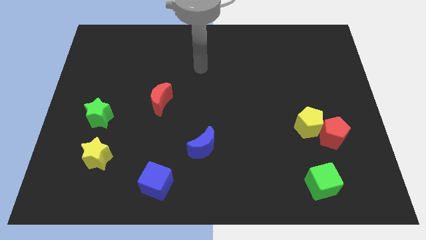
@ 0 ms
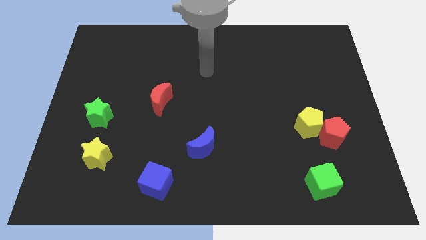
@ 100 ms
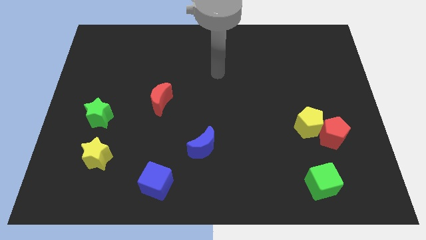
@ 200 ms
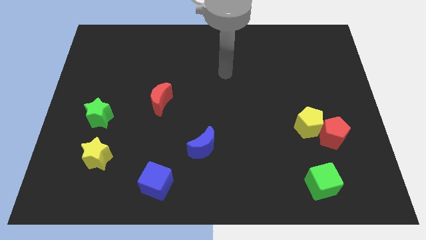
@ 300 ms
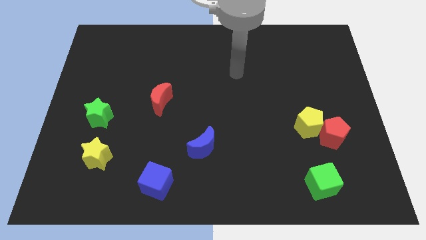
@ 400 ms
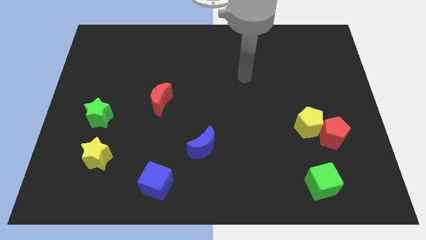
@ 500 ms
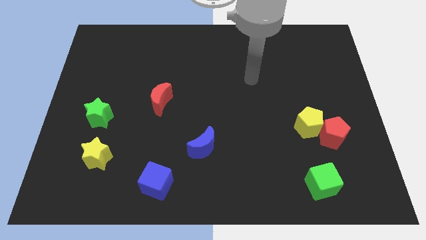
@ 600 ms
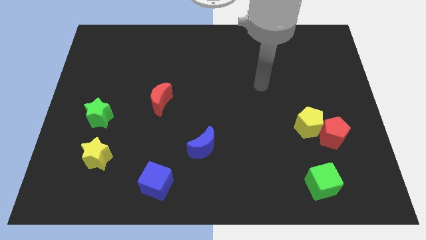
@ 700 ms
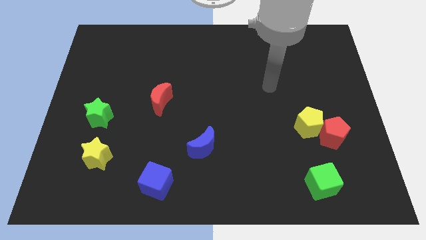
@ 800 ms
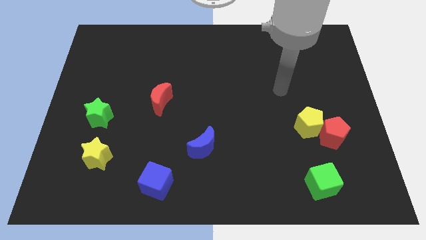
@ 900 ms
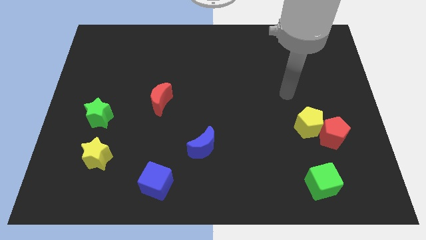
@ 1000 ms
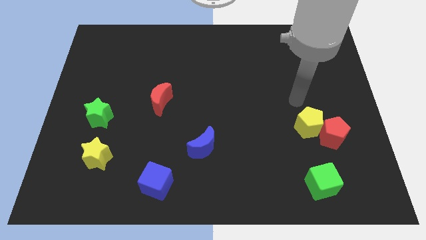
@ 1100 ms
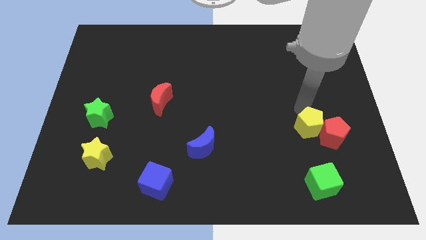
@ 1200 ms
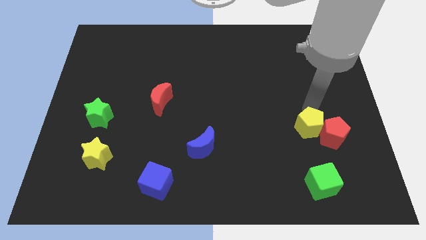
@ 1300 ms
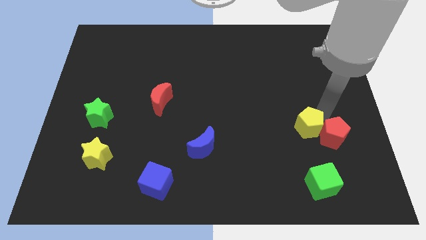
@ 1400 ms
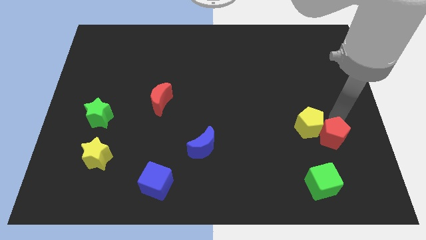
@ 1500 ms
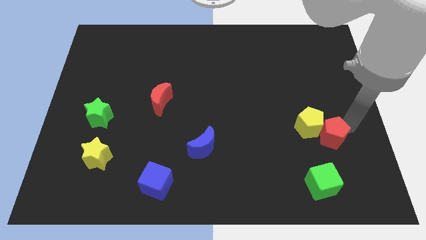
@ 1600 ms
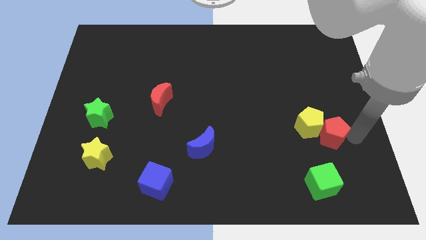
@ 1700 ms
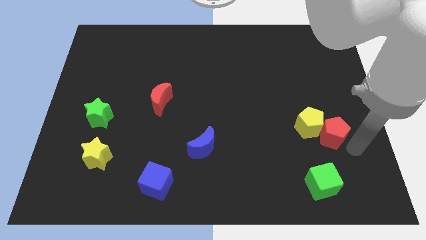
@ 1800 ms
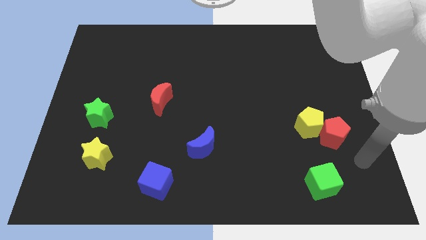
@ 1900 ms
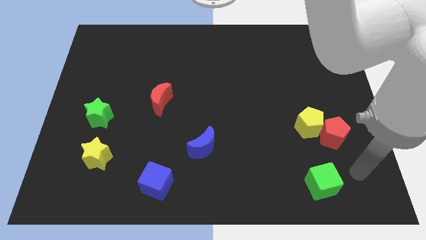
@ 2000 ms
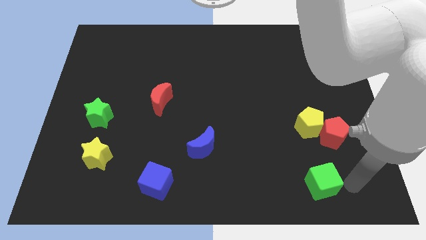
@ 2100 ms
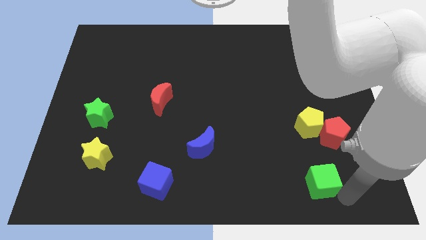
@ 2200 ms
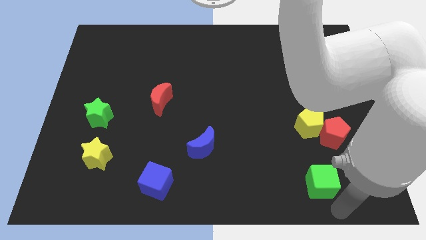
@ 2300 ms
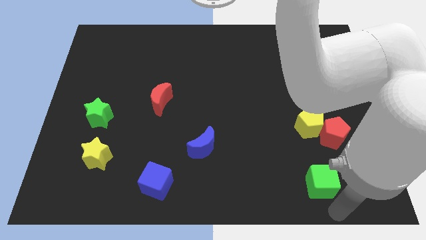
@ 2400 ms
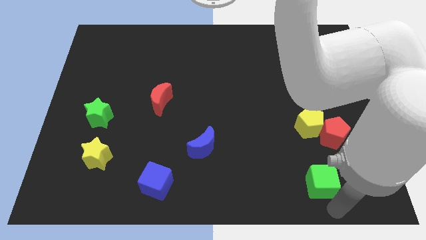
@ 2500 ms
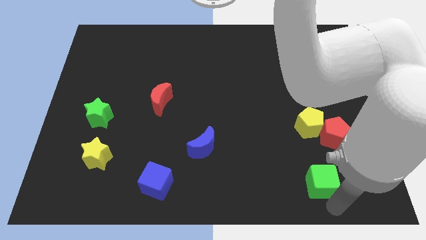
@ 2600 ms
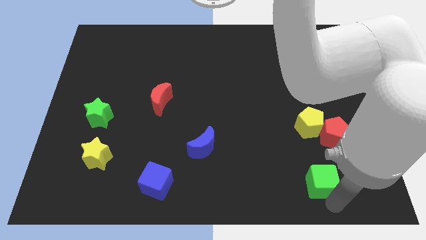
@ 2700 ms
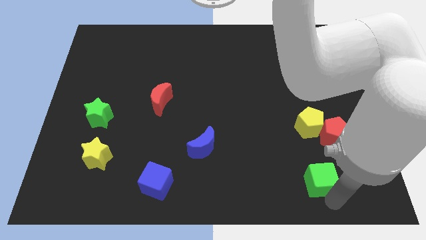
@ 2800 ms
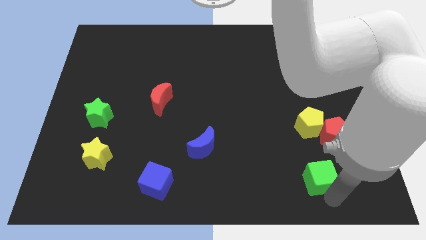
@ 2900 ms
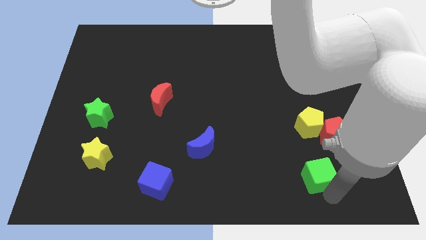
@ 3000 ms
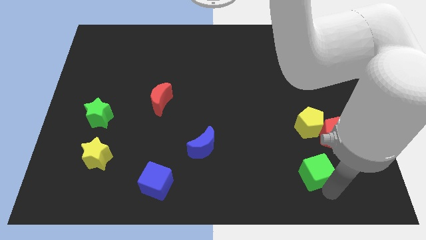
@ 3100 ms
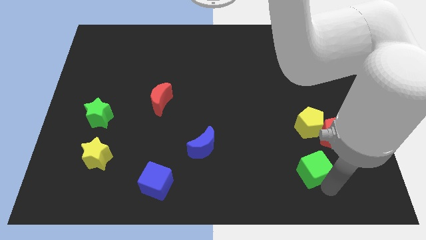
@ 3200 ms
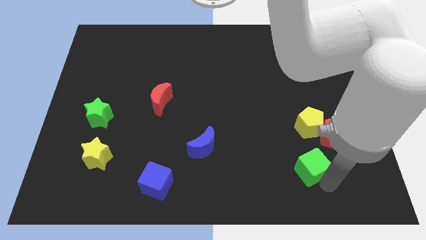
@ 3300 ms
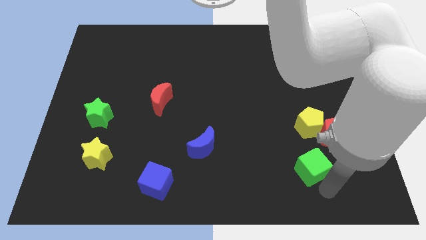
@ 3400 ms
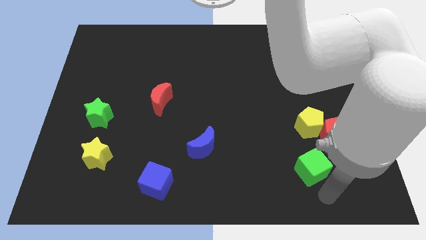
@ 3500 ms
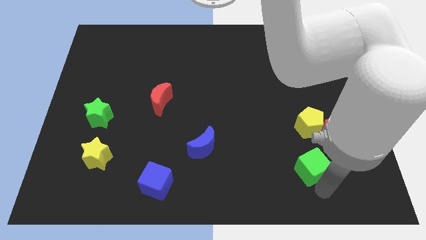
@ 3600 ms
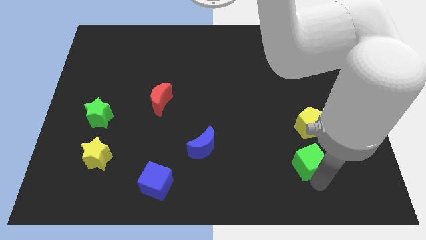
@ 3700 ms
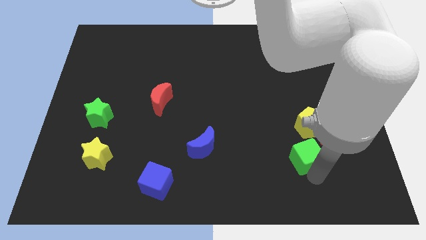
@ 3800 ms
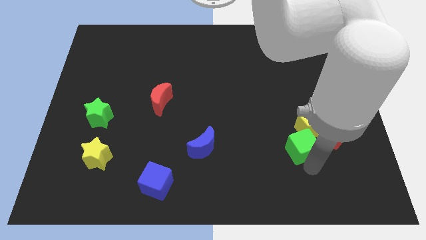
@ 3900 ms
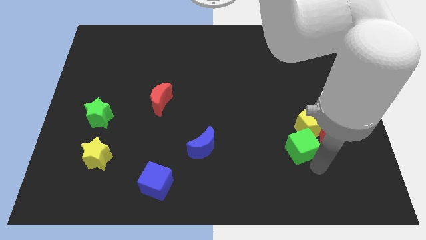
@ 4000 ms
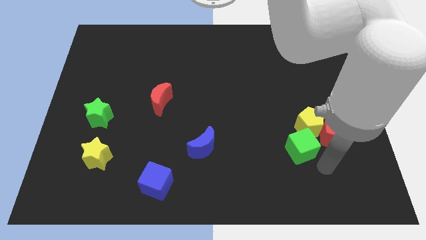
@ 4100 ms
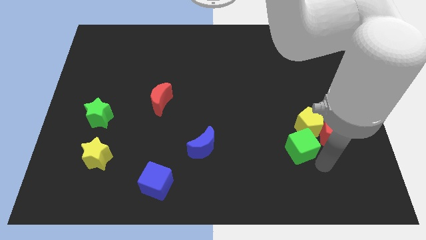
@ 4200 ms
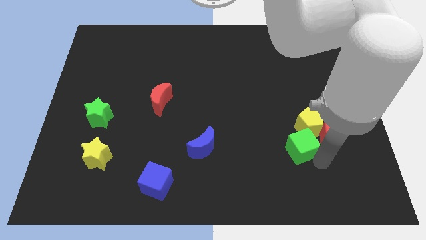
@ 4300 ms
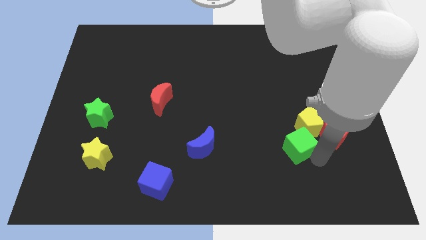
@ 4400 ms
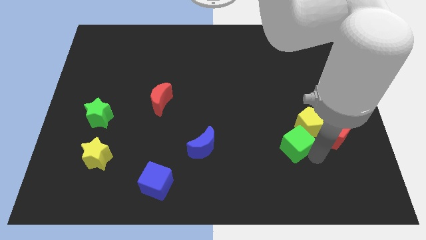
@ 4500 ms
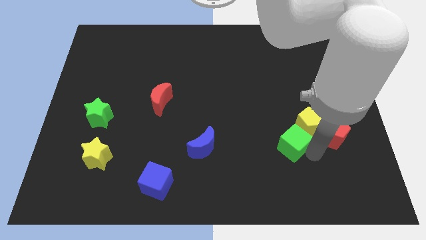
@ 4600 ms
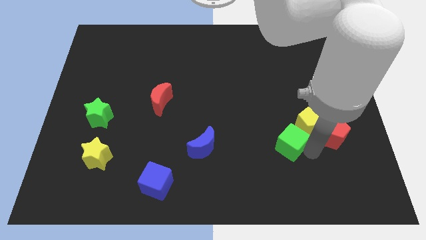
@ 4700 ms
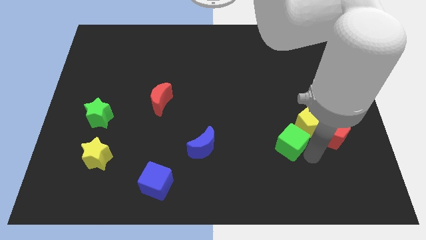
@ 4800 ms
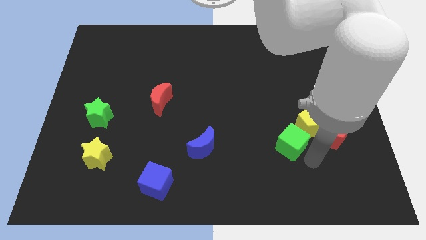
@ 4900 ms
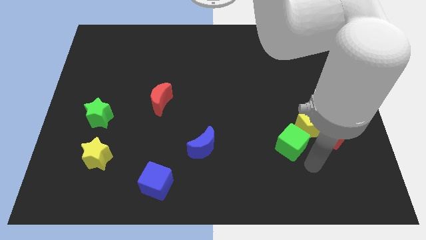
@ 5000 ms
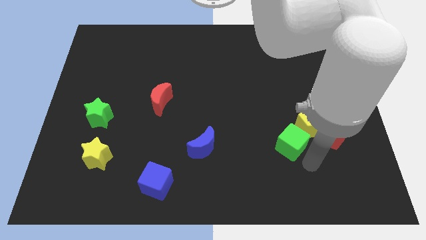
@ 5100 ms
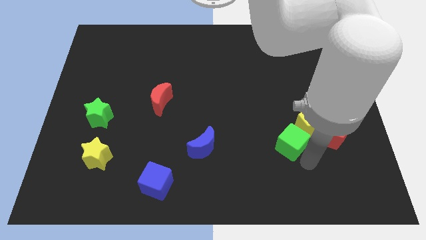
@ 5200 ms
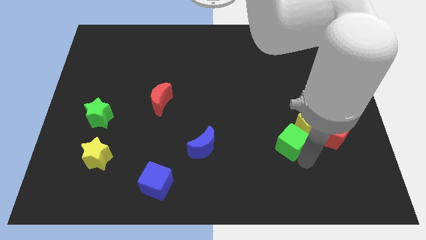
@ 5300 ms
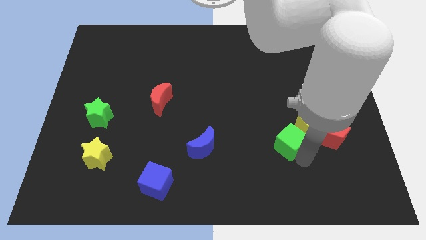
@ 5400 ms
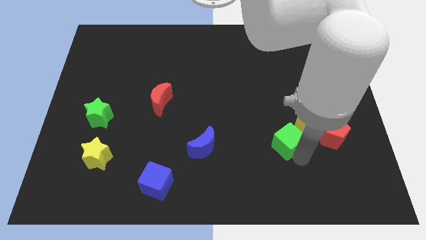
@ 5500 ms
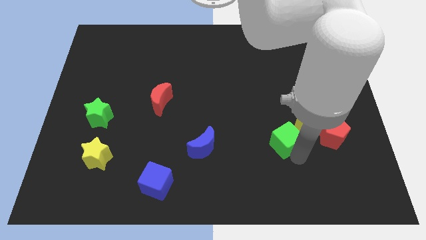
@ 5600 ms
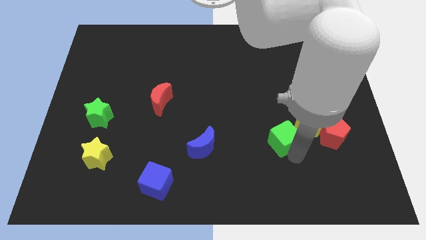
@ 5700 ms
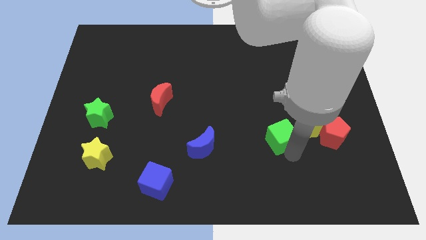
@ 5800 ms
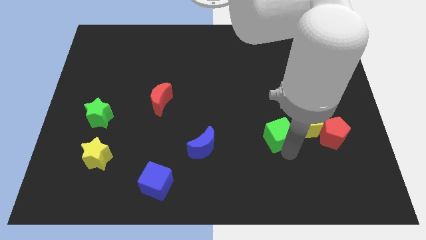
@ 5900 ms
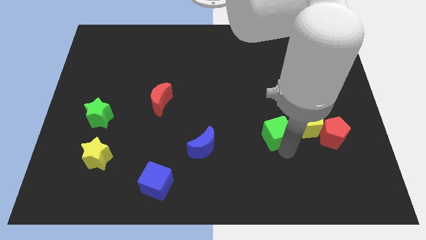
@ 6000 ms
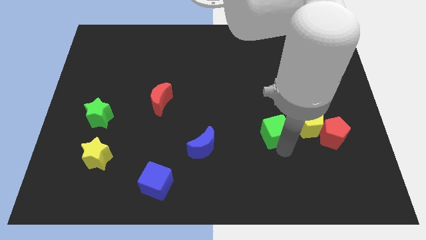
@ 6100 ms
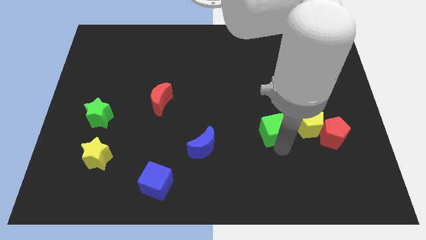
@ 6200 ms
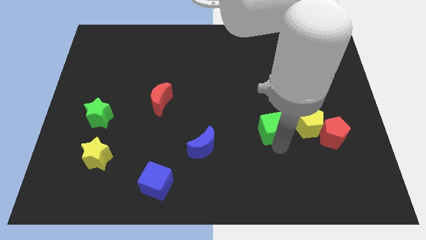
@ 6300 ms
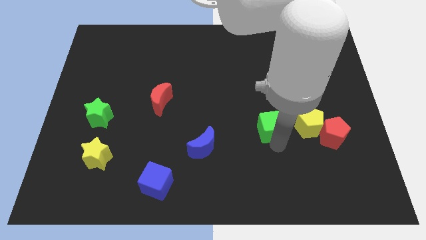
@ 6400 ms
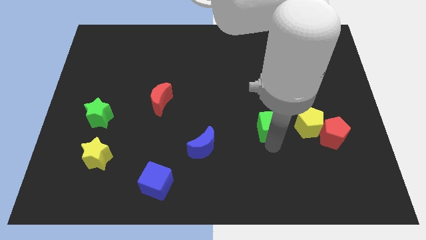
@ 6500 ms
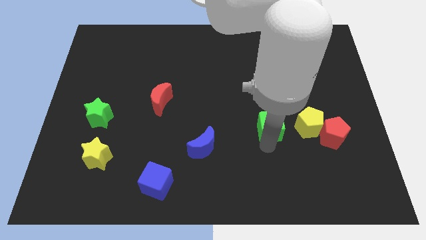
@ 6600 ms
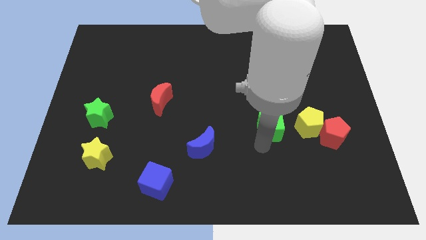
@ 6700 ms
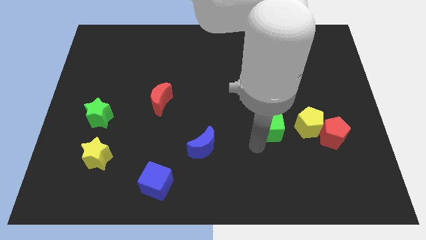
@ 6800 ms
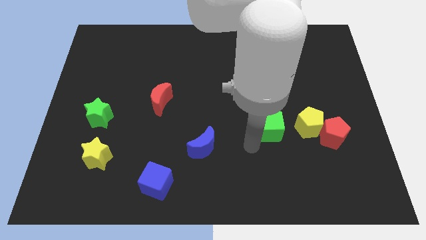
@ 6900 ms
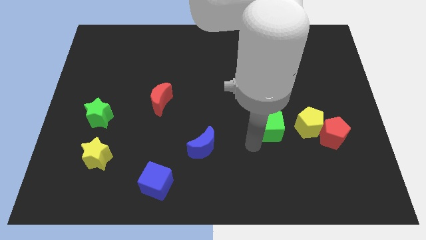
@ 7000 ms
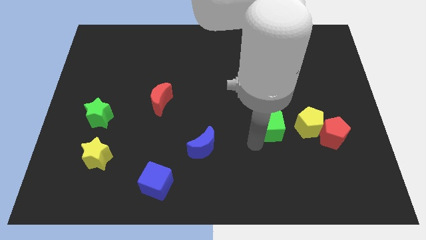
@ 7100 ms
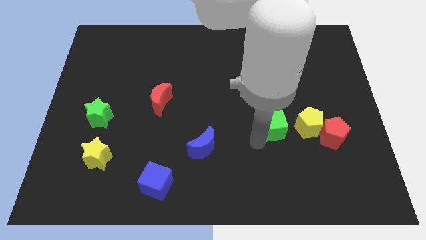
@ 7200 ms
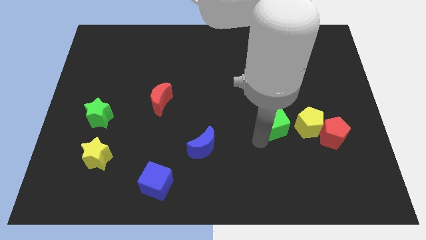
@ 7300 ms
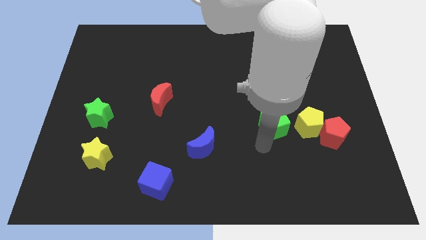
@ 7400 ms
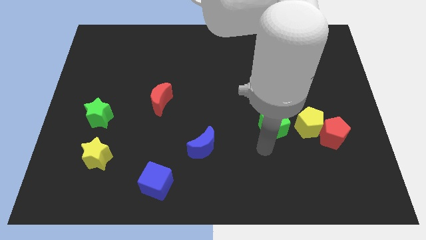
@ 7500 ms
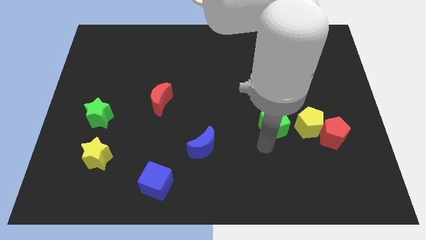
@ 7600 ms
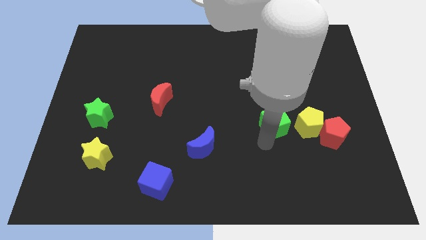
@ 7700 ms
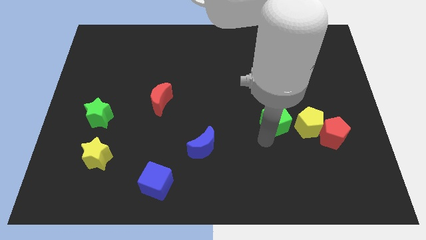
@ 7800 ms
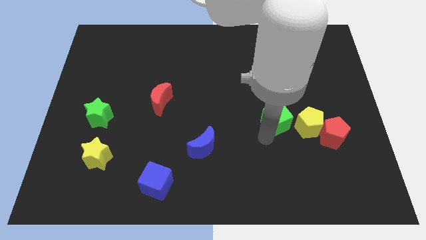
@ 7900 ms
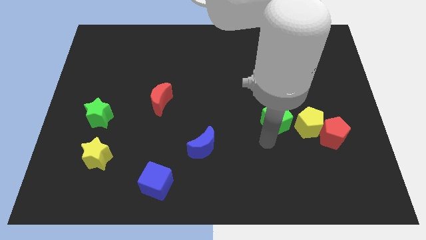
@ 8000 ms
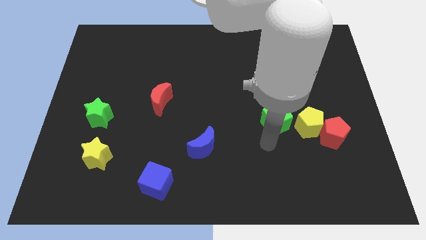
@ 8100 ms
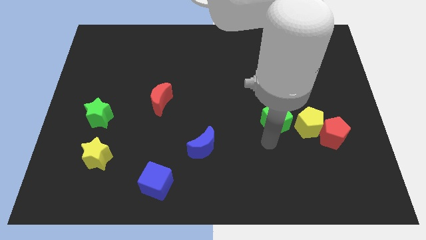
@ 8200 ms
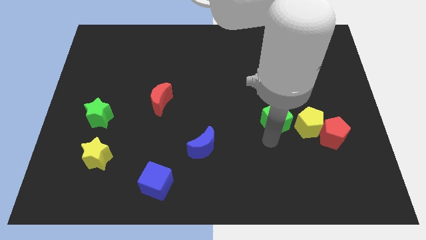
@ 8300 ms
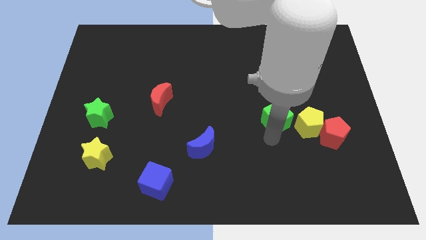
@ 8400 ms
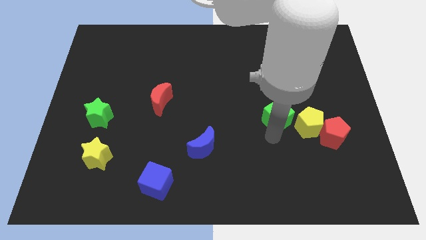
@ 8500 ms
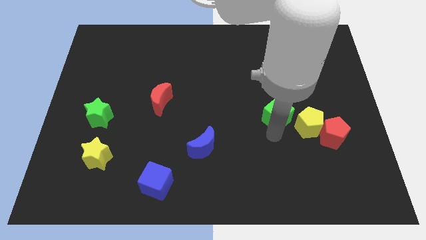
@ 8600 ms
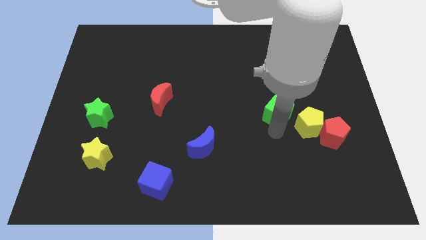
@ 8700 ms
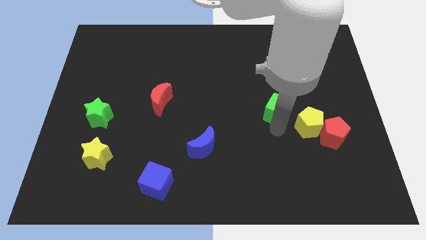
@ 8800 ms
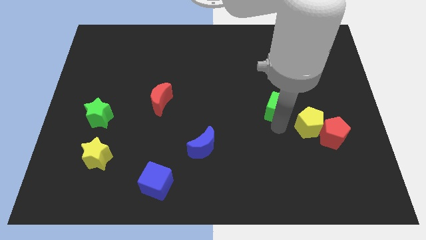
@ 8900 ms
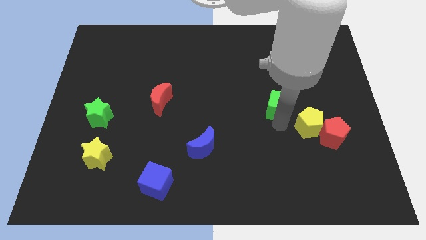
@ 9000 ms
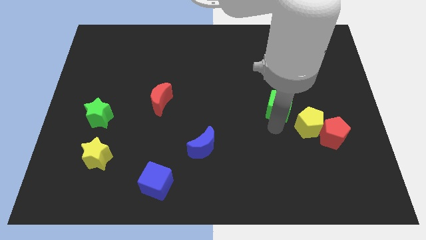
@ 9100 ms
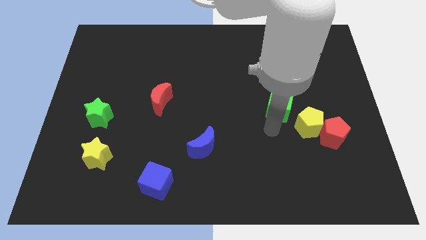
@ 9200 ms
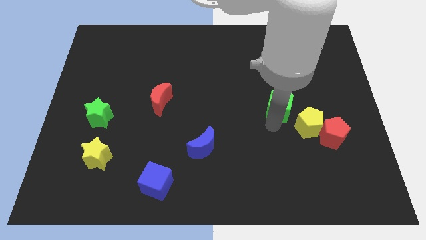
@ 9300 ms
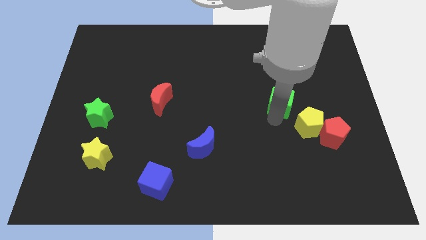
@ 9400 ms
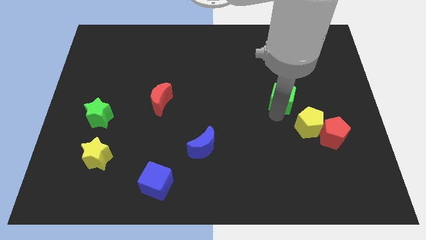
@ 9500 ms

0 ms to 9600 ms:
move the green cube upwards
